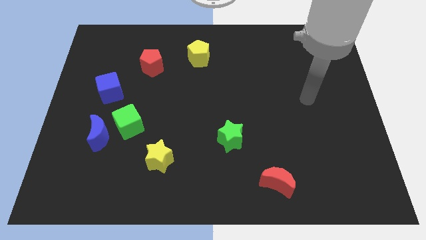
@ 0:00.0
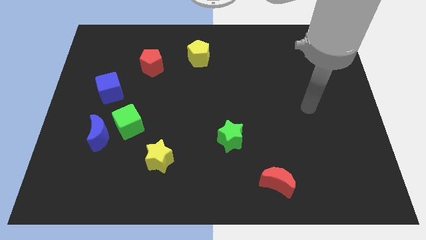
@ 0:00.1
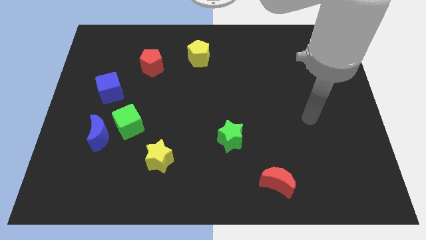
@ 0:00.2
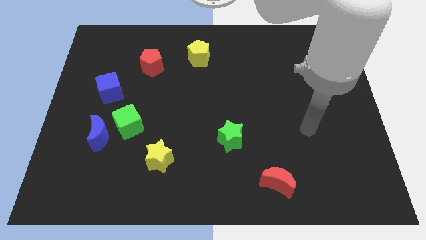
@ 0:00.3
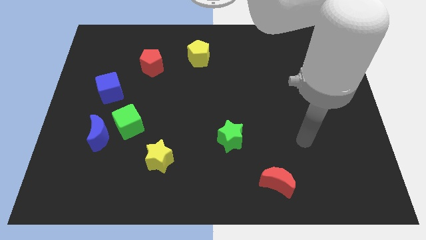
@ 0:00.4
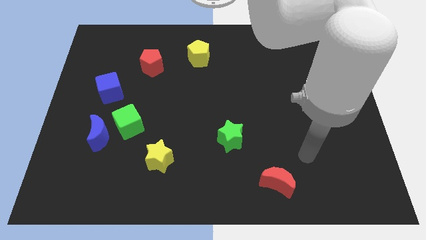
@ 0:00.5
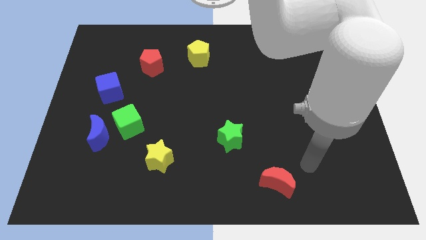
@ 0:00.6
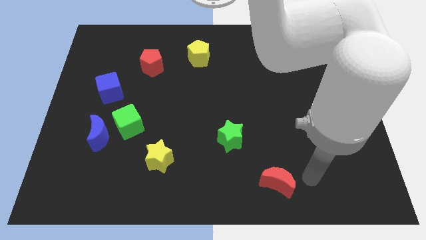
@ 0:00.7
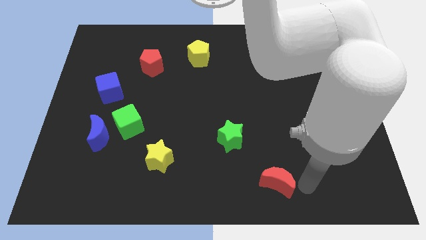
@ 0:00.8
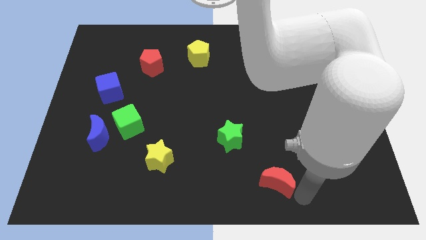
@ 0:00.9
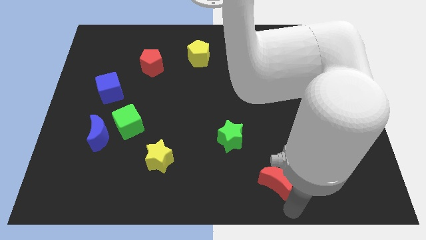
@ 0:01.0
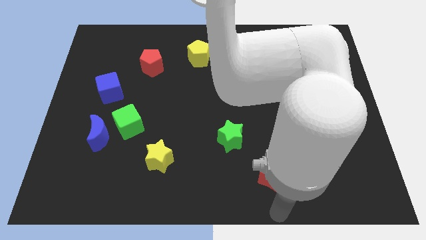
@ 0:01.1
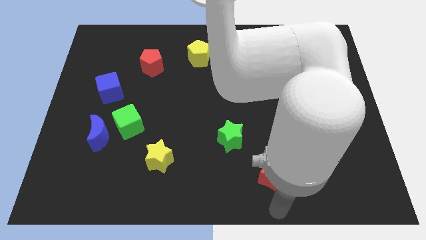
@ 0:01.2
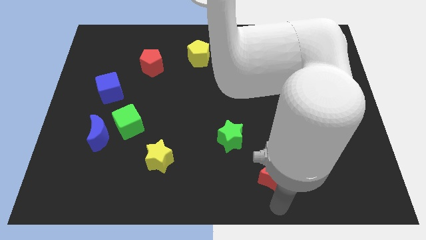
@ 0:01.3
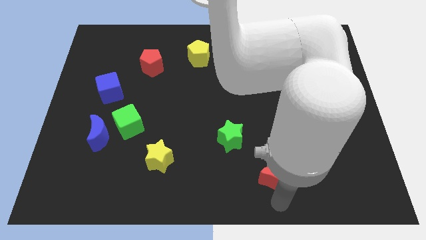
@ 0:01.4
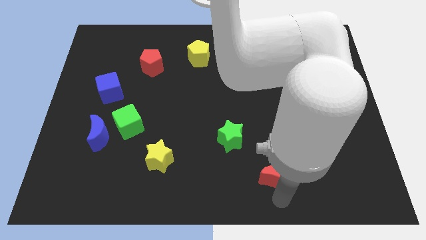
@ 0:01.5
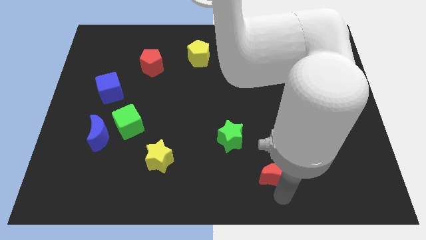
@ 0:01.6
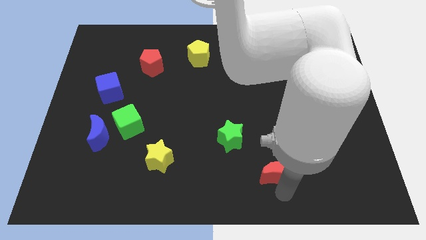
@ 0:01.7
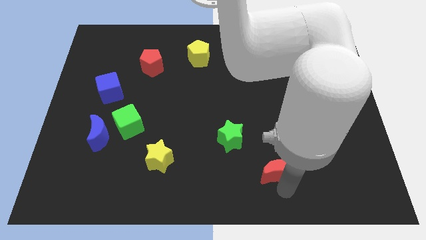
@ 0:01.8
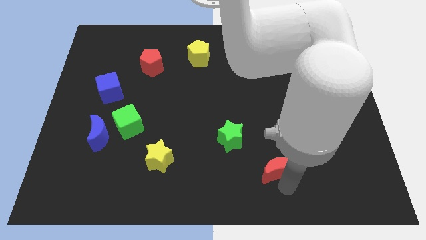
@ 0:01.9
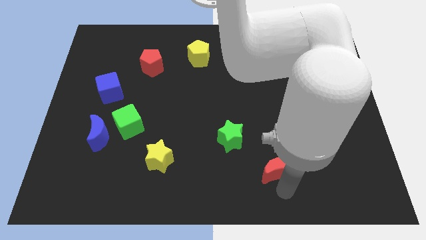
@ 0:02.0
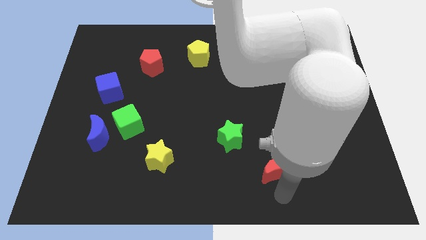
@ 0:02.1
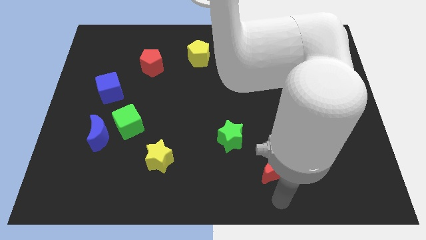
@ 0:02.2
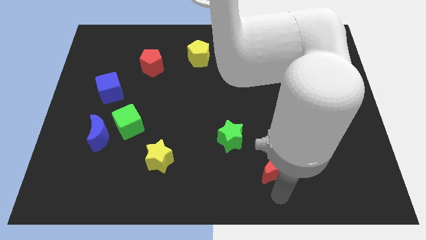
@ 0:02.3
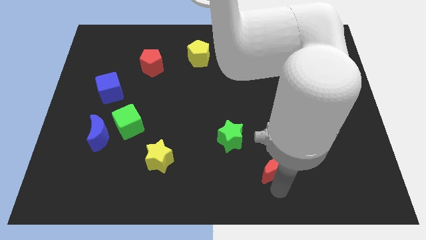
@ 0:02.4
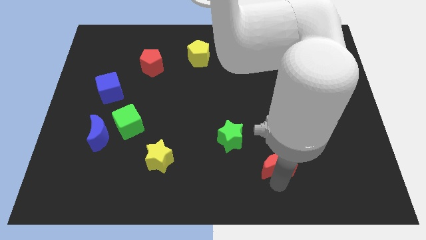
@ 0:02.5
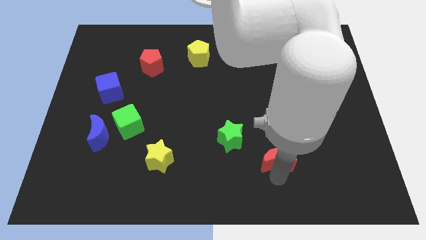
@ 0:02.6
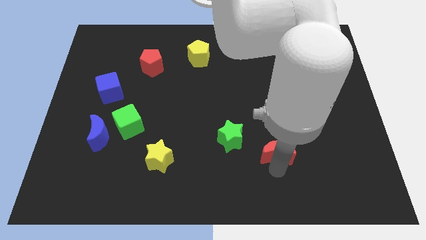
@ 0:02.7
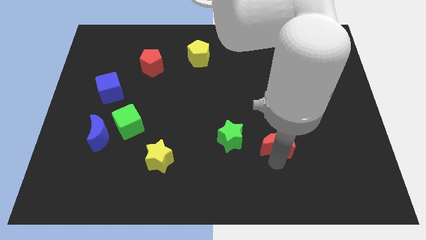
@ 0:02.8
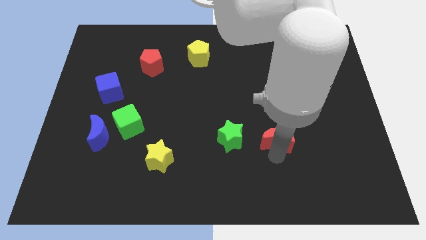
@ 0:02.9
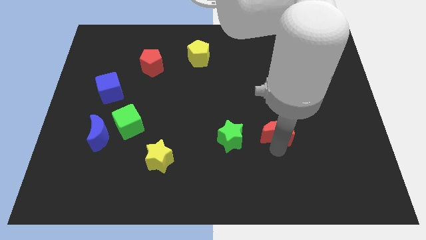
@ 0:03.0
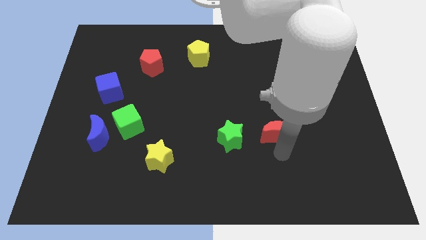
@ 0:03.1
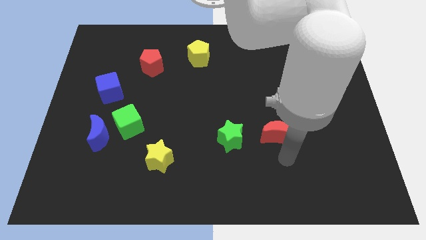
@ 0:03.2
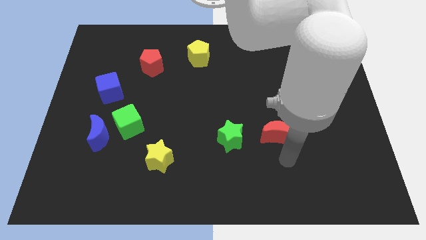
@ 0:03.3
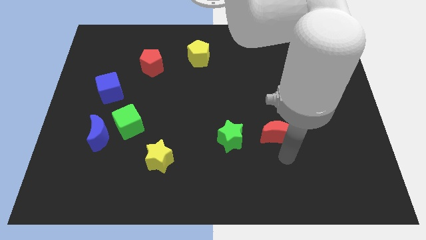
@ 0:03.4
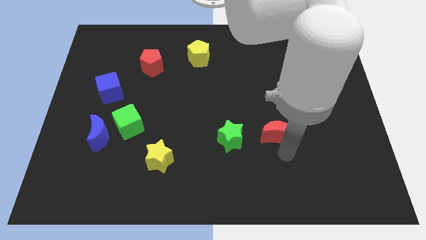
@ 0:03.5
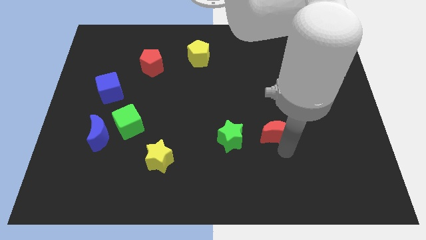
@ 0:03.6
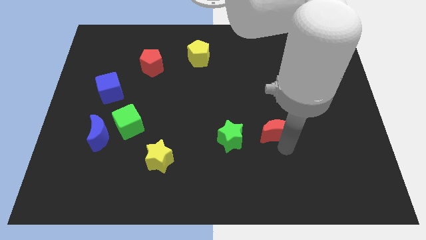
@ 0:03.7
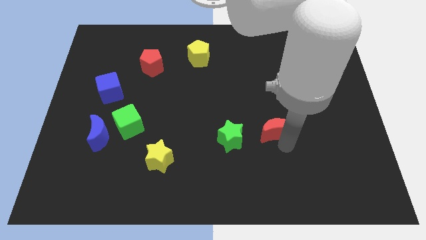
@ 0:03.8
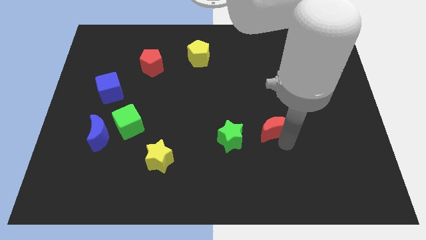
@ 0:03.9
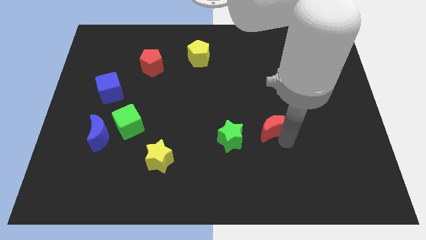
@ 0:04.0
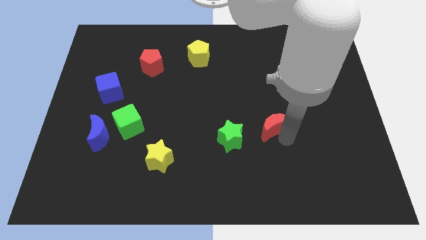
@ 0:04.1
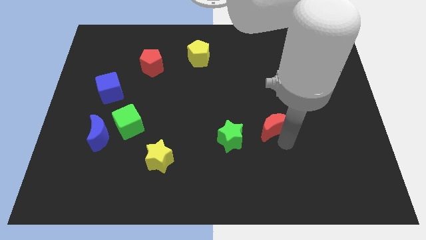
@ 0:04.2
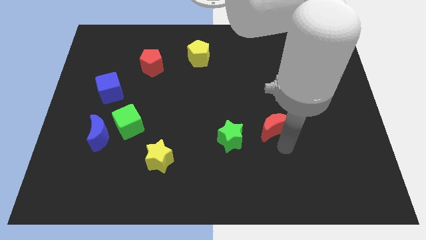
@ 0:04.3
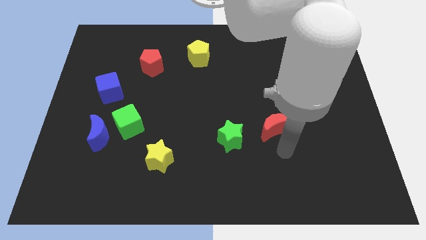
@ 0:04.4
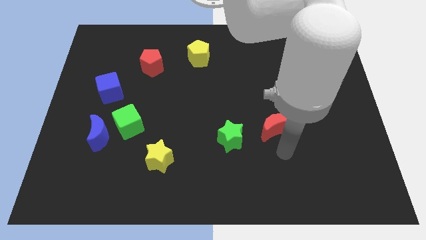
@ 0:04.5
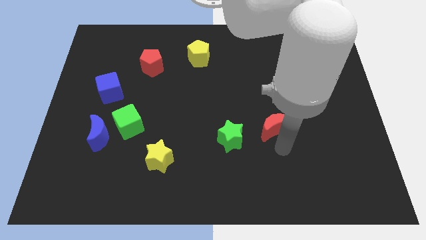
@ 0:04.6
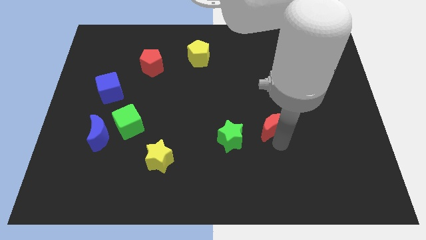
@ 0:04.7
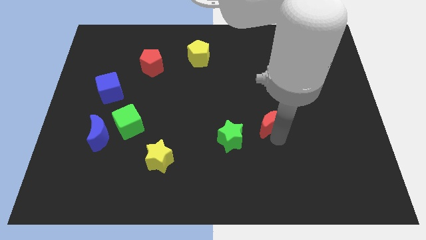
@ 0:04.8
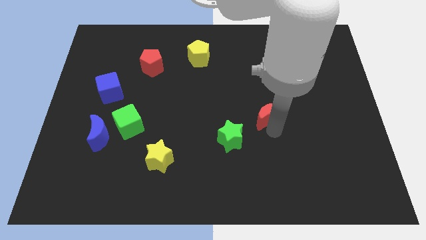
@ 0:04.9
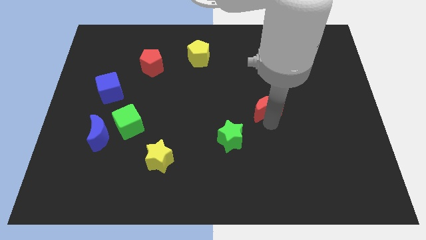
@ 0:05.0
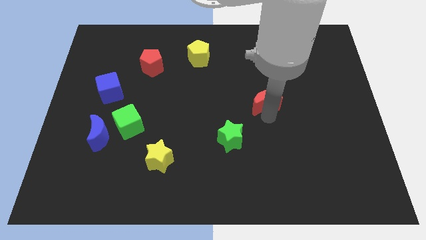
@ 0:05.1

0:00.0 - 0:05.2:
push the red moon upwards

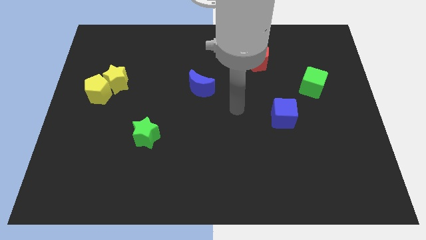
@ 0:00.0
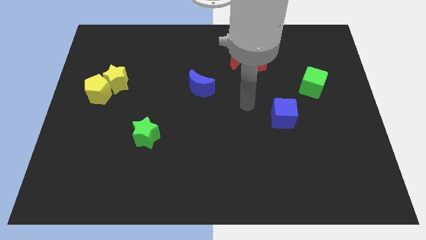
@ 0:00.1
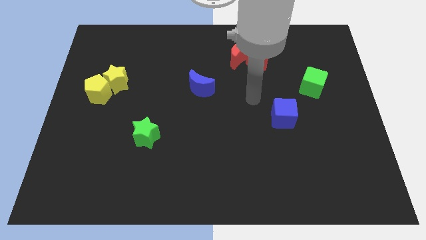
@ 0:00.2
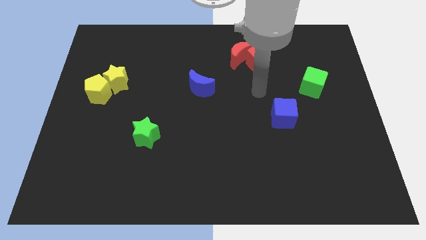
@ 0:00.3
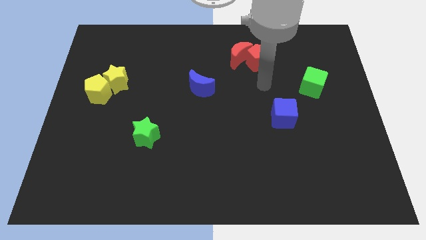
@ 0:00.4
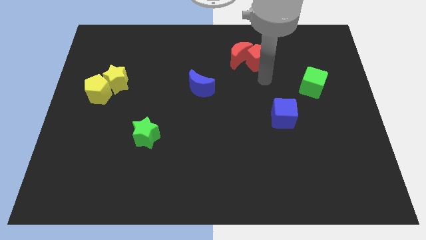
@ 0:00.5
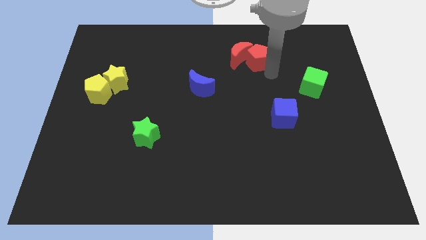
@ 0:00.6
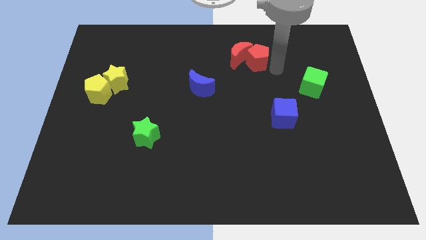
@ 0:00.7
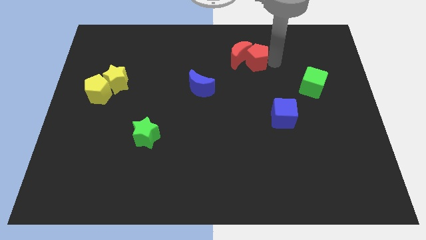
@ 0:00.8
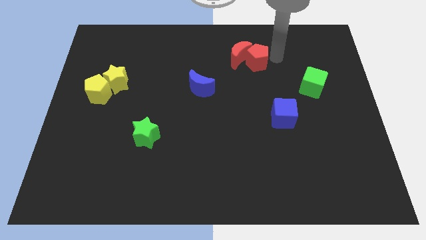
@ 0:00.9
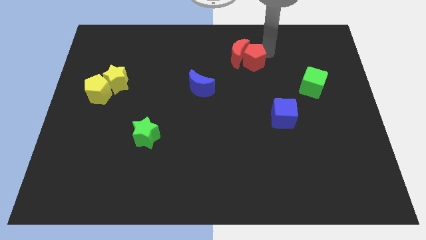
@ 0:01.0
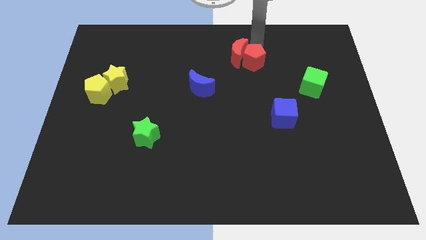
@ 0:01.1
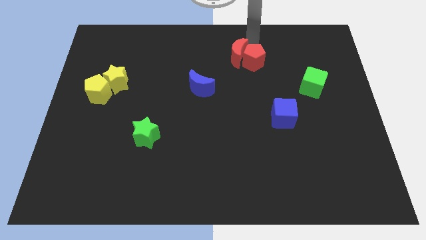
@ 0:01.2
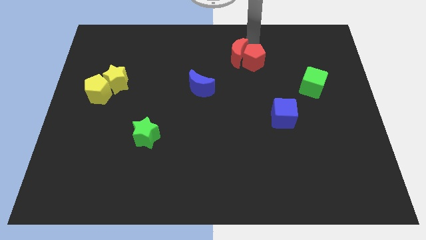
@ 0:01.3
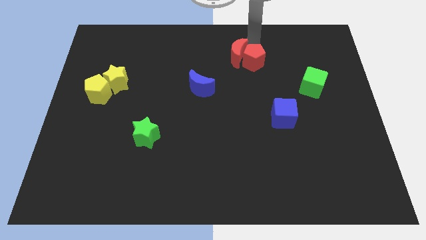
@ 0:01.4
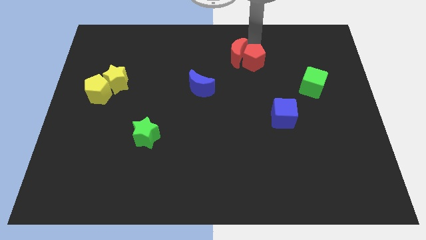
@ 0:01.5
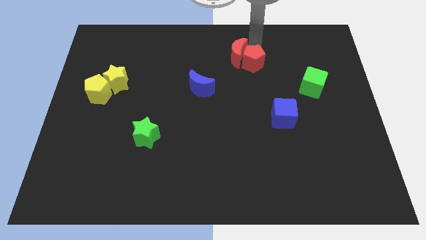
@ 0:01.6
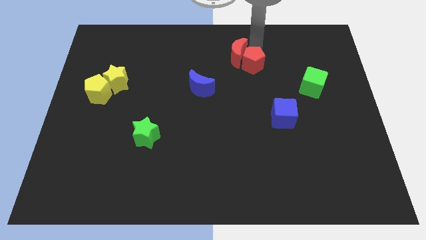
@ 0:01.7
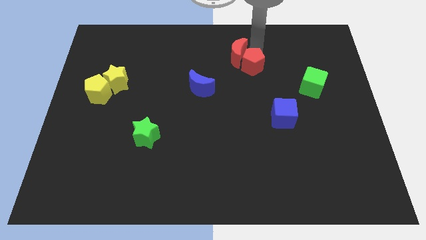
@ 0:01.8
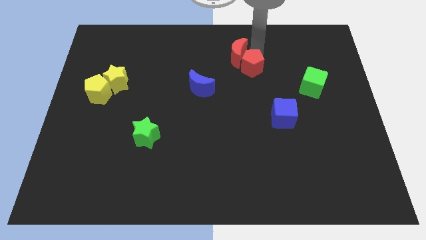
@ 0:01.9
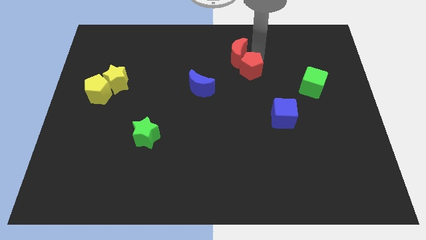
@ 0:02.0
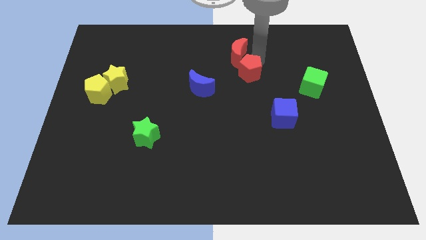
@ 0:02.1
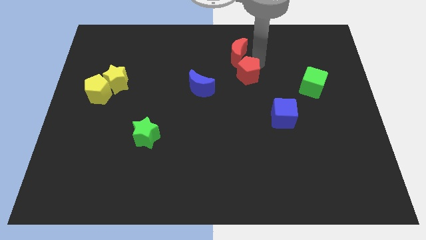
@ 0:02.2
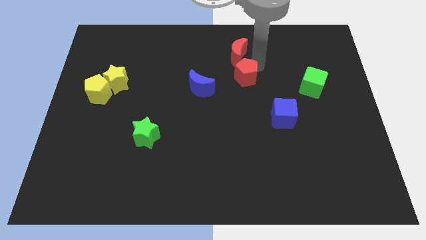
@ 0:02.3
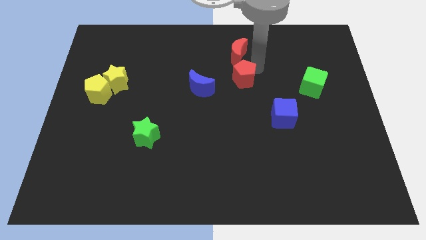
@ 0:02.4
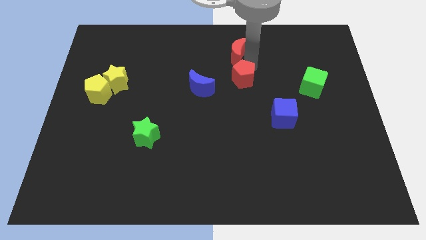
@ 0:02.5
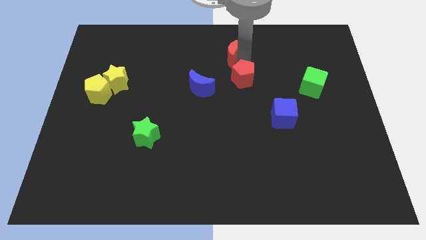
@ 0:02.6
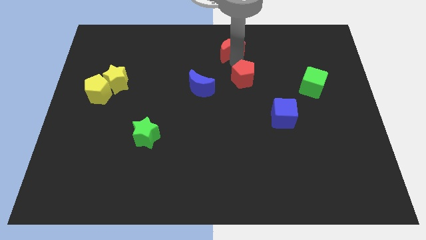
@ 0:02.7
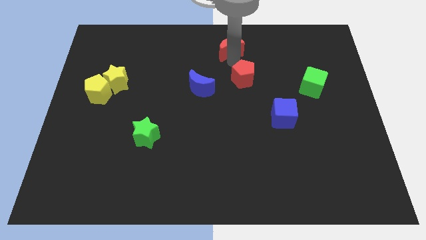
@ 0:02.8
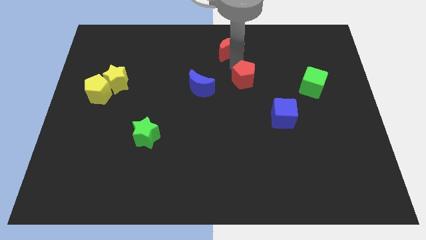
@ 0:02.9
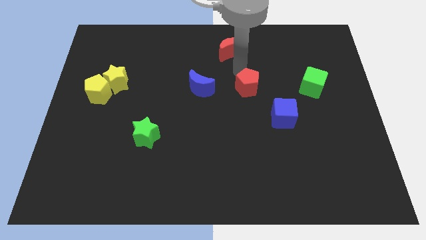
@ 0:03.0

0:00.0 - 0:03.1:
push the red pentagon somewhat down
